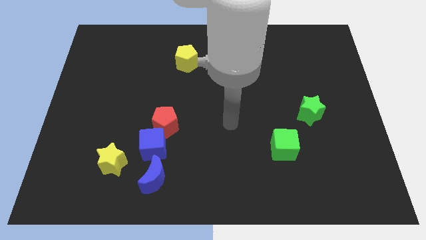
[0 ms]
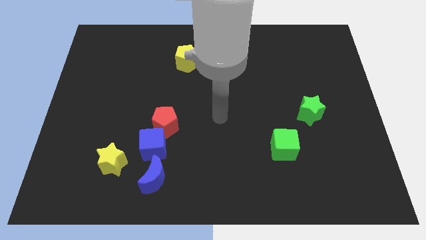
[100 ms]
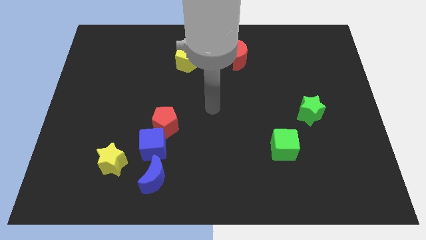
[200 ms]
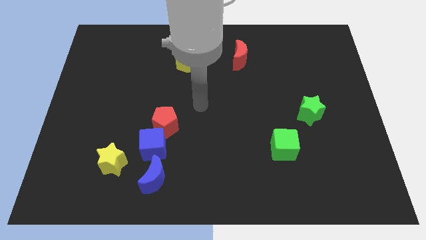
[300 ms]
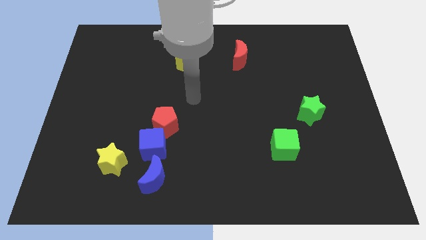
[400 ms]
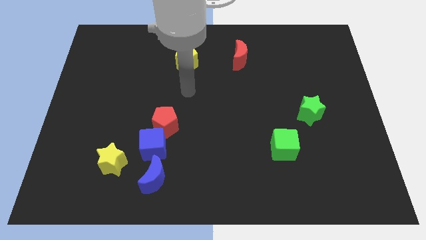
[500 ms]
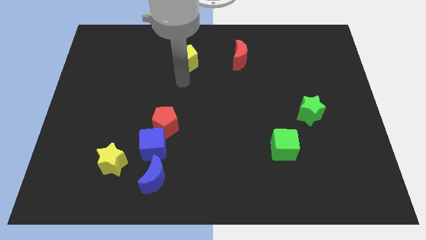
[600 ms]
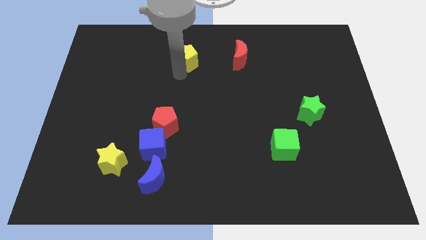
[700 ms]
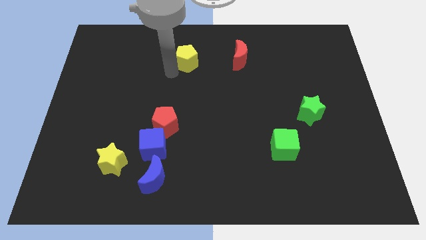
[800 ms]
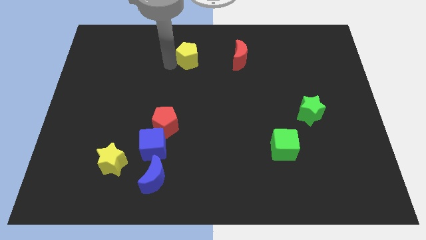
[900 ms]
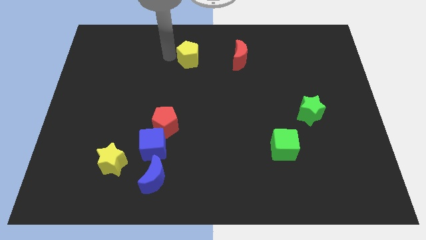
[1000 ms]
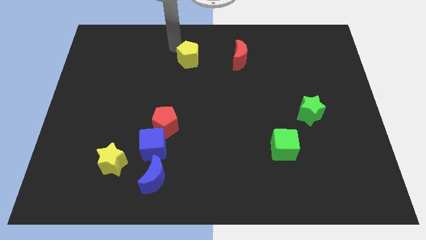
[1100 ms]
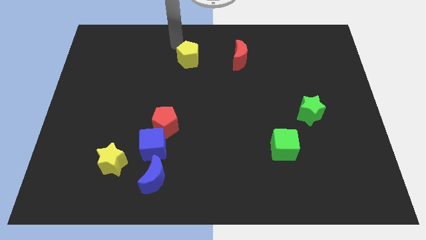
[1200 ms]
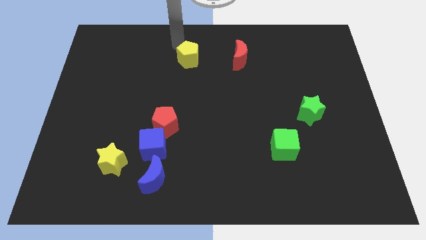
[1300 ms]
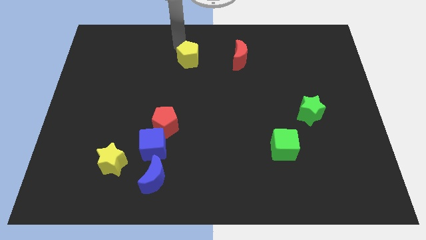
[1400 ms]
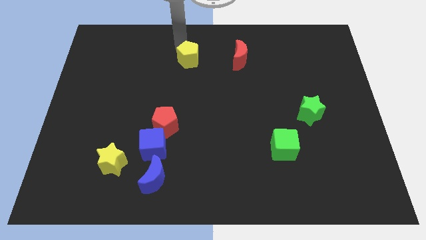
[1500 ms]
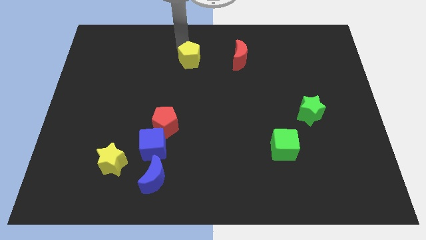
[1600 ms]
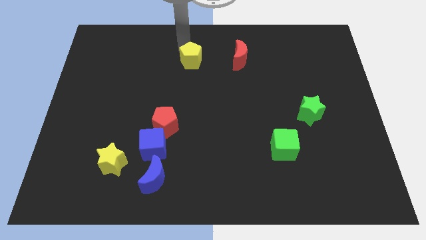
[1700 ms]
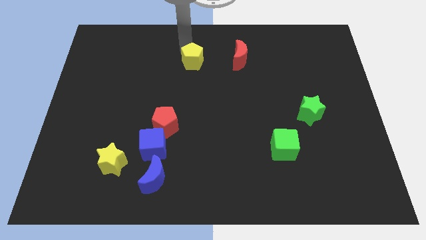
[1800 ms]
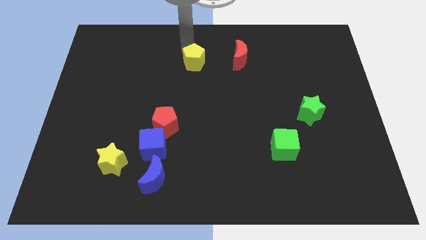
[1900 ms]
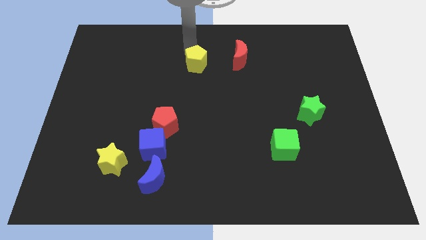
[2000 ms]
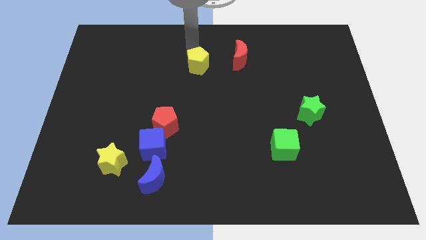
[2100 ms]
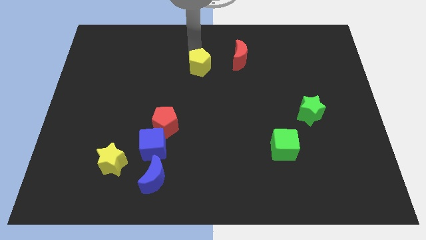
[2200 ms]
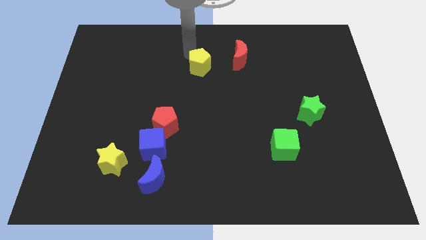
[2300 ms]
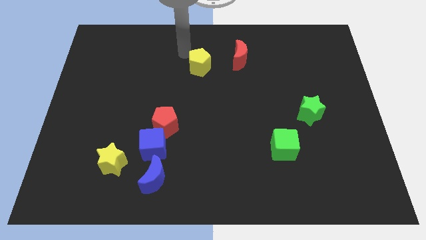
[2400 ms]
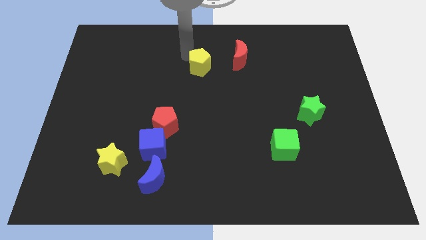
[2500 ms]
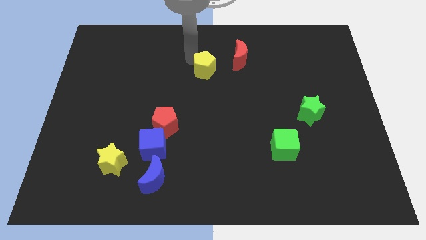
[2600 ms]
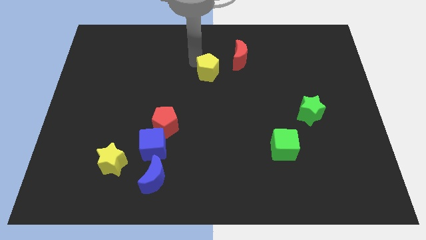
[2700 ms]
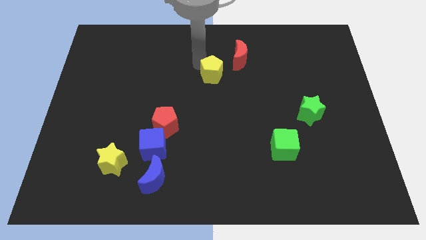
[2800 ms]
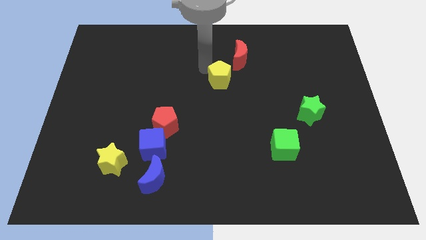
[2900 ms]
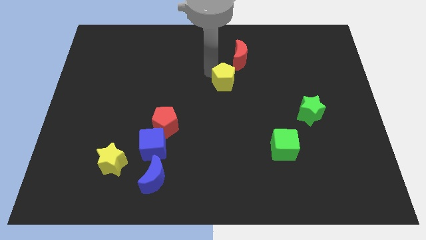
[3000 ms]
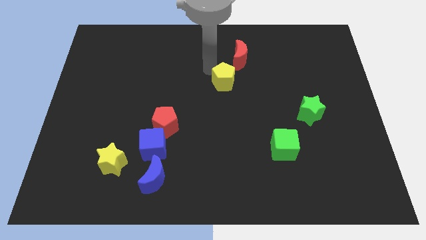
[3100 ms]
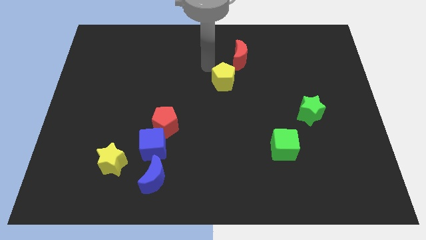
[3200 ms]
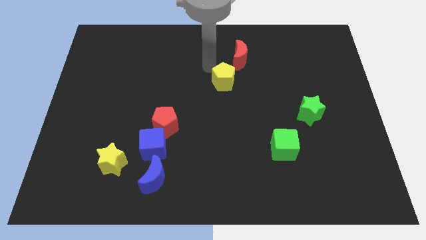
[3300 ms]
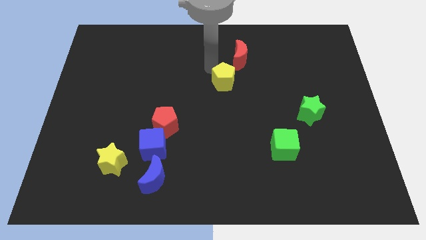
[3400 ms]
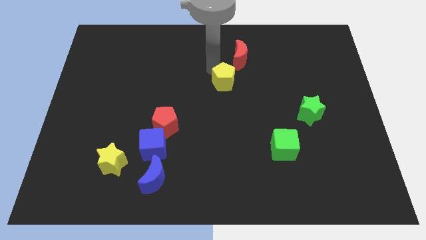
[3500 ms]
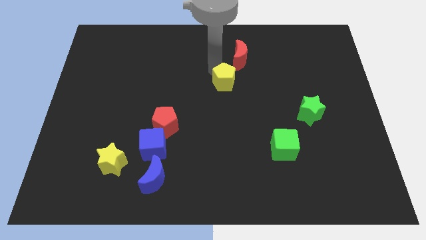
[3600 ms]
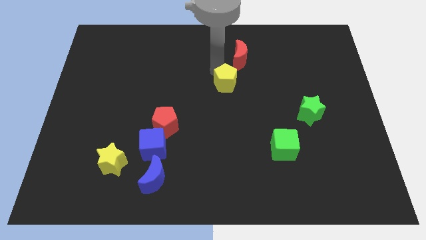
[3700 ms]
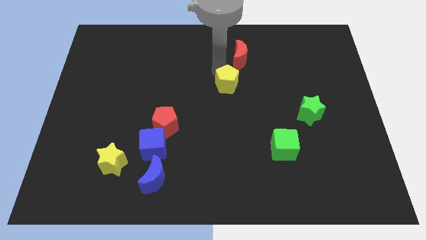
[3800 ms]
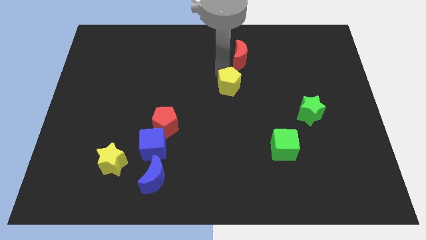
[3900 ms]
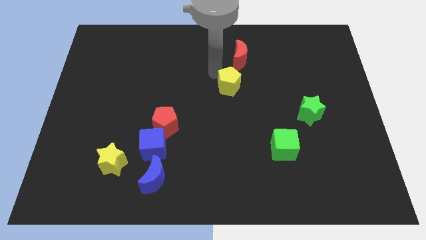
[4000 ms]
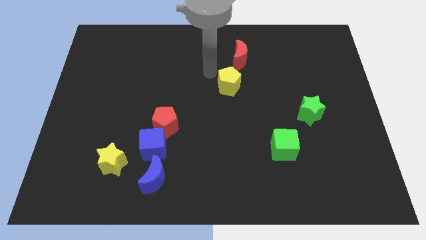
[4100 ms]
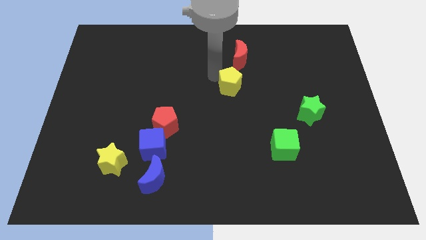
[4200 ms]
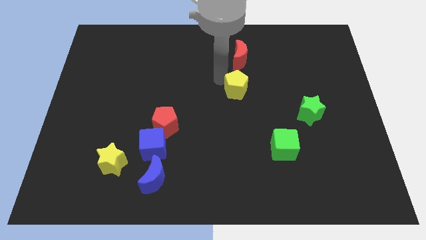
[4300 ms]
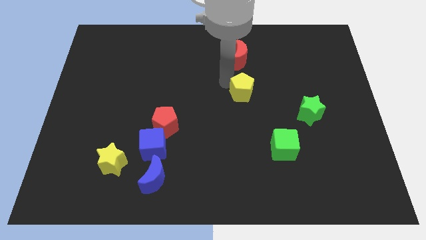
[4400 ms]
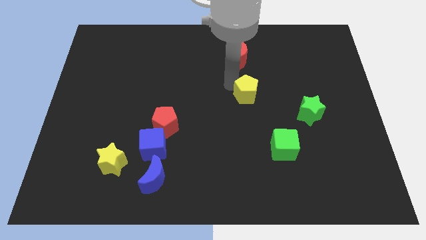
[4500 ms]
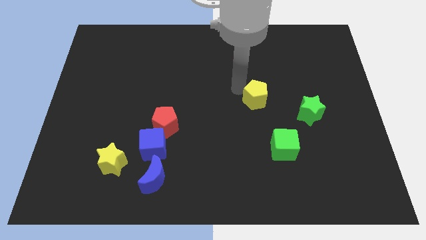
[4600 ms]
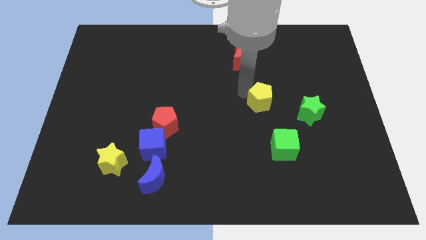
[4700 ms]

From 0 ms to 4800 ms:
slide the yellow pentagon to the top of the green cube

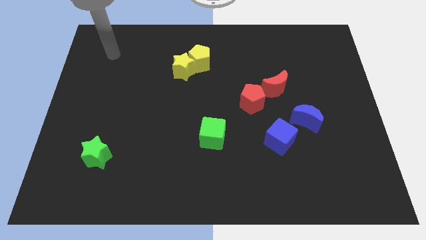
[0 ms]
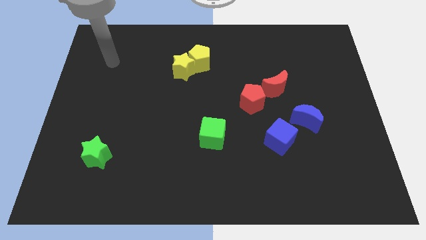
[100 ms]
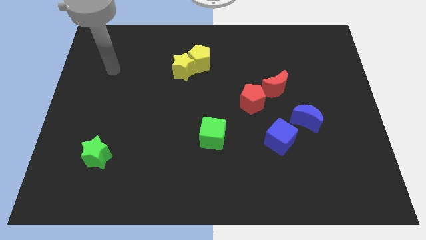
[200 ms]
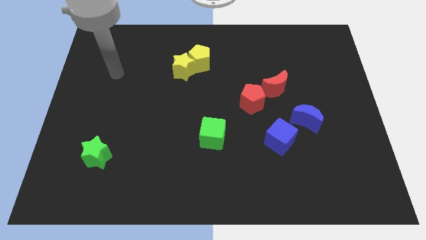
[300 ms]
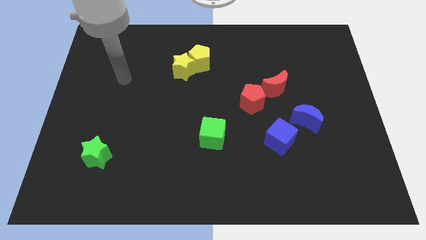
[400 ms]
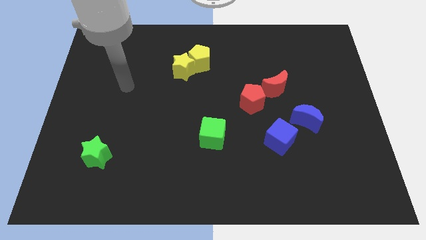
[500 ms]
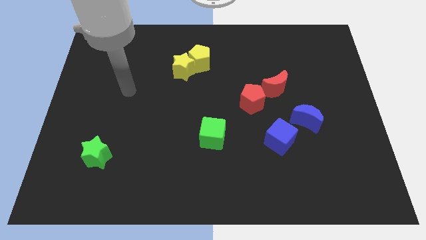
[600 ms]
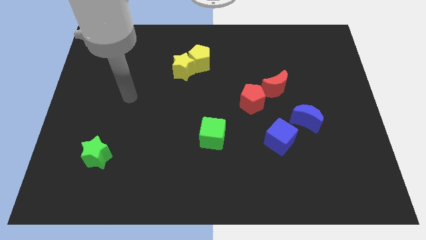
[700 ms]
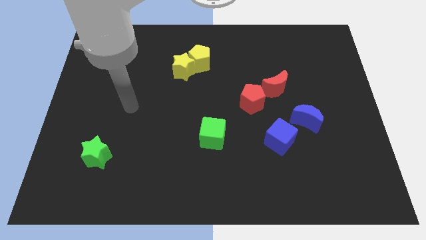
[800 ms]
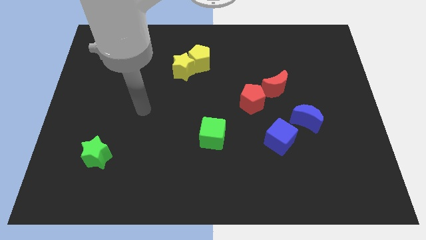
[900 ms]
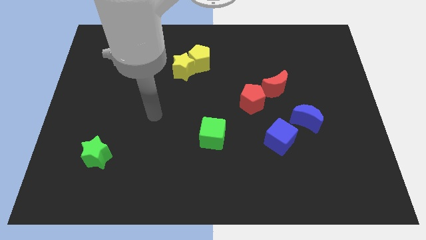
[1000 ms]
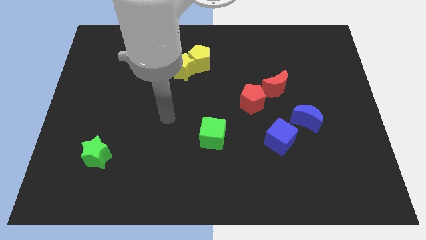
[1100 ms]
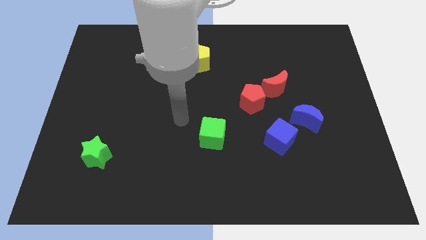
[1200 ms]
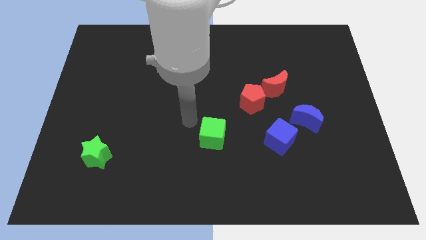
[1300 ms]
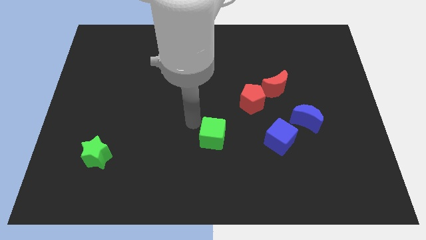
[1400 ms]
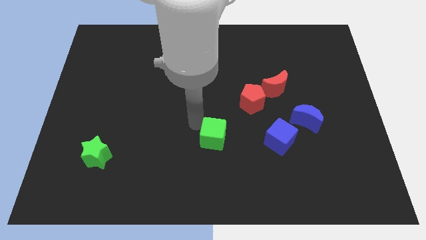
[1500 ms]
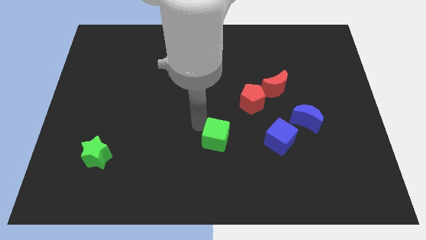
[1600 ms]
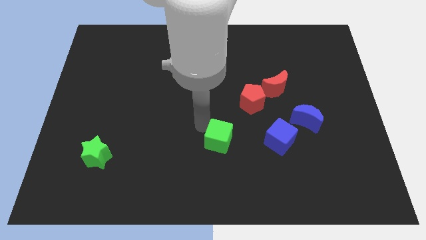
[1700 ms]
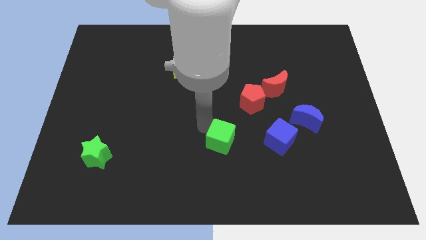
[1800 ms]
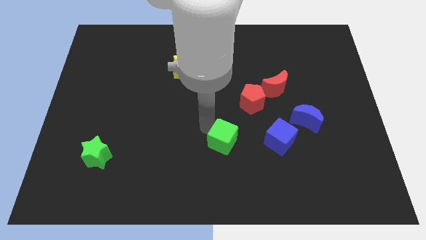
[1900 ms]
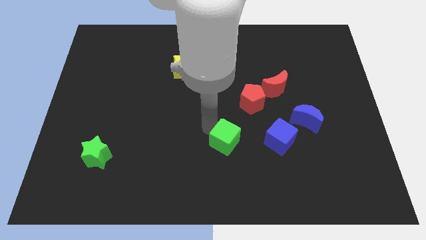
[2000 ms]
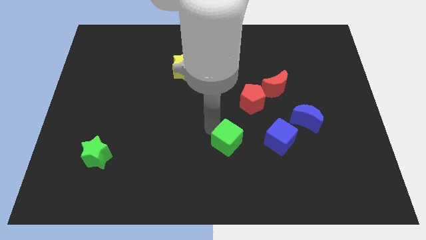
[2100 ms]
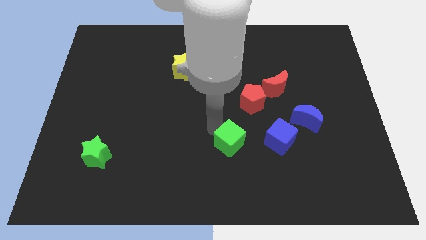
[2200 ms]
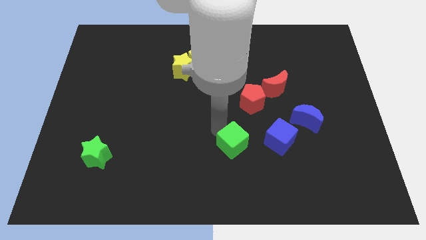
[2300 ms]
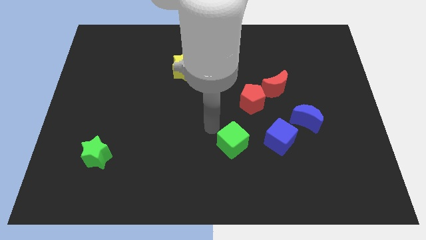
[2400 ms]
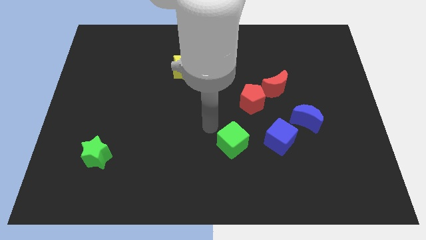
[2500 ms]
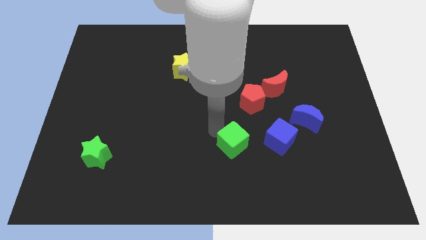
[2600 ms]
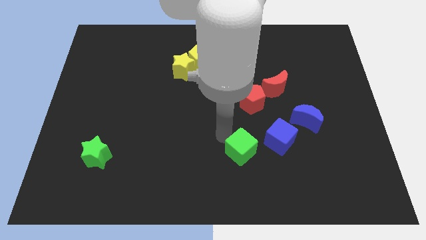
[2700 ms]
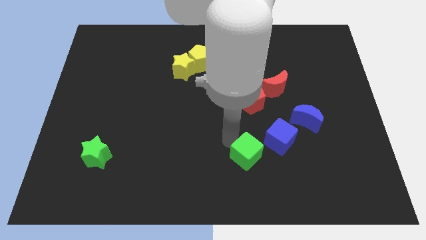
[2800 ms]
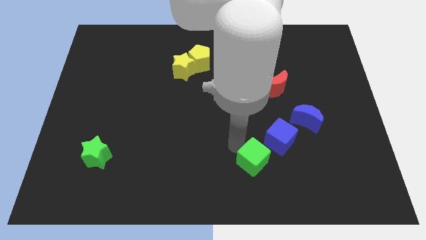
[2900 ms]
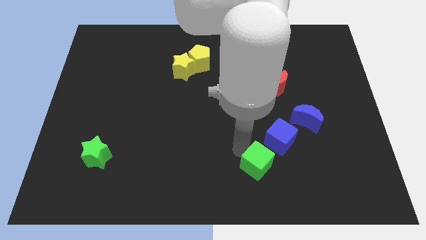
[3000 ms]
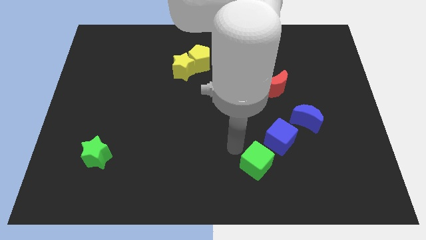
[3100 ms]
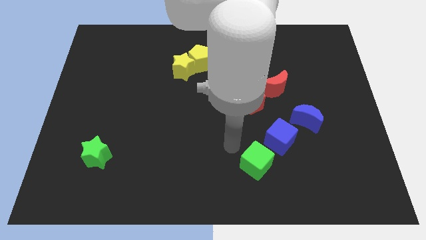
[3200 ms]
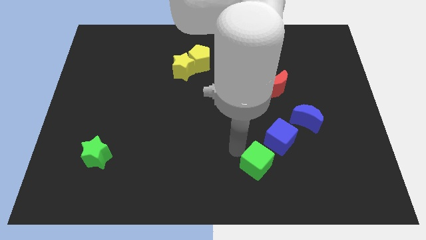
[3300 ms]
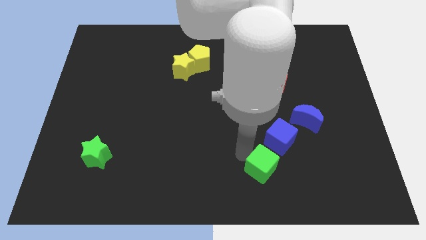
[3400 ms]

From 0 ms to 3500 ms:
push the green cube below the blue cube
